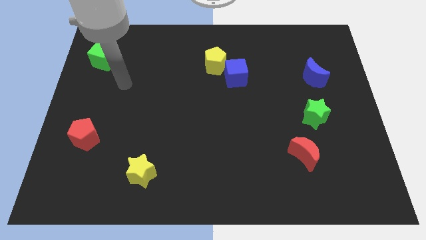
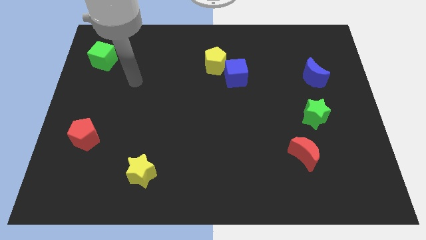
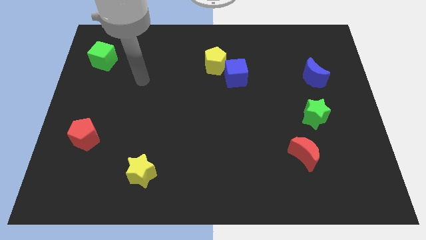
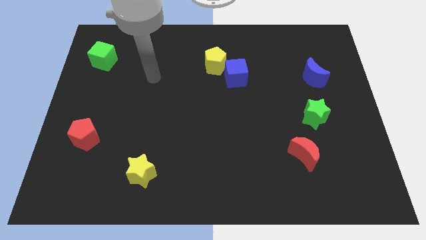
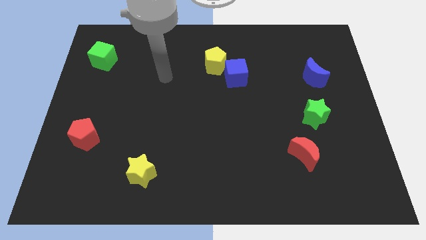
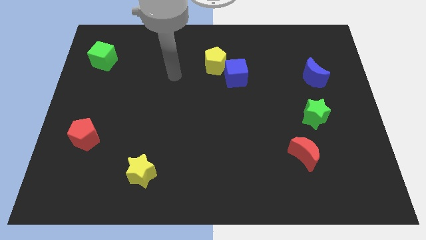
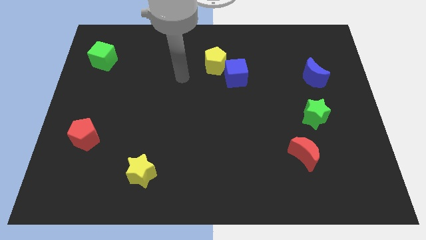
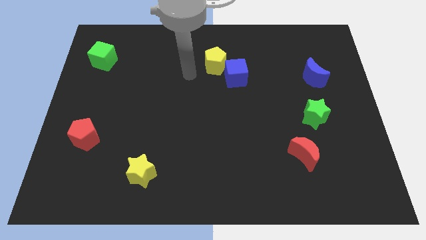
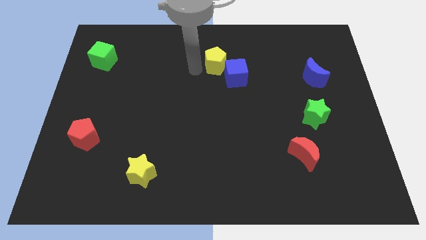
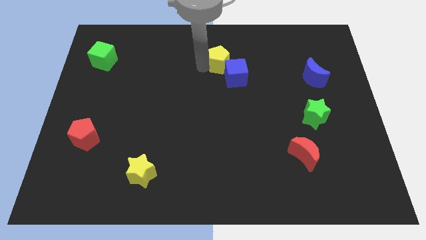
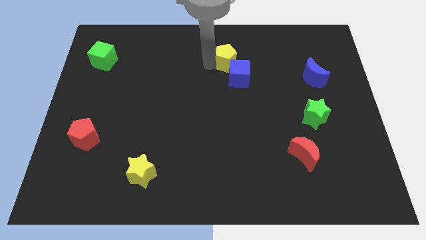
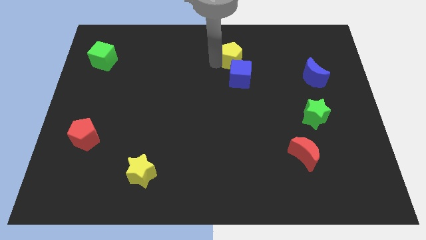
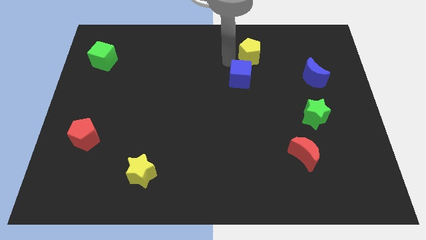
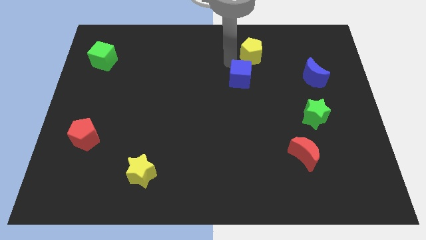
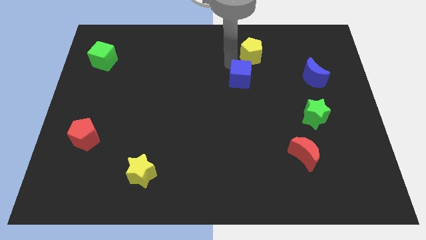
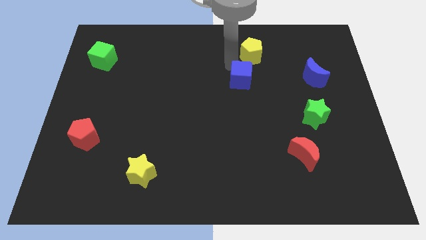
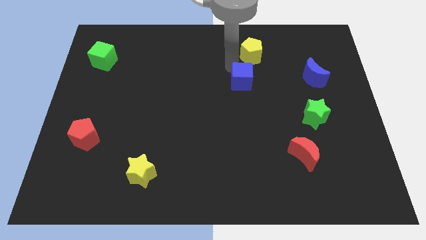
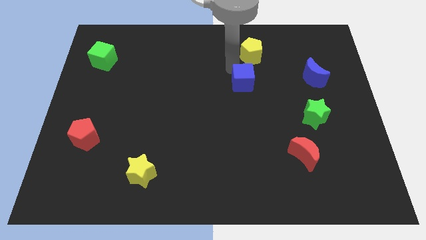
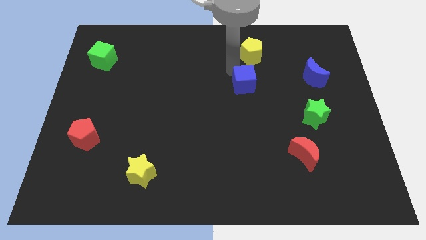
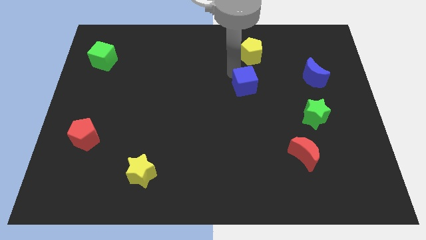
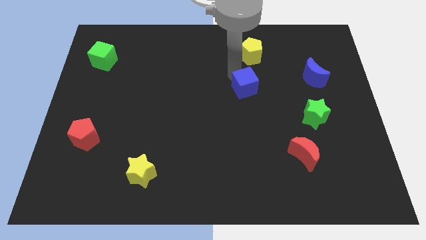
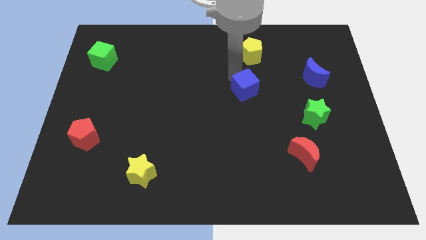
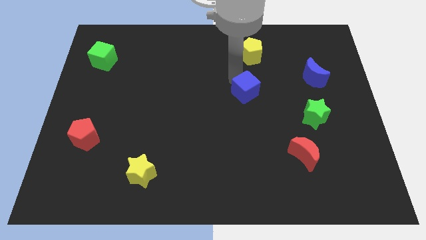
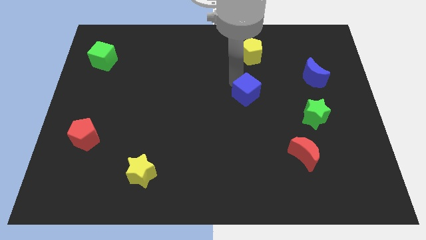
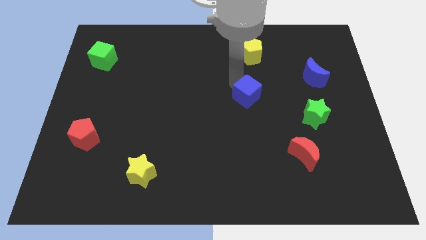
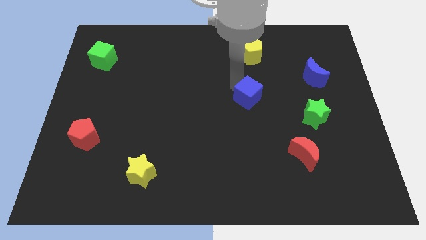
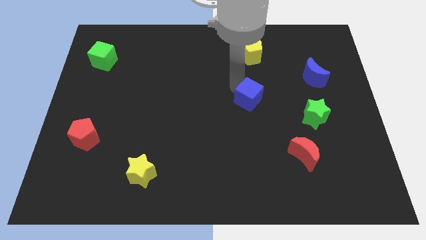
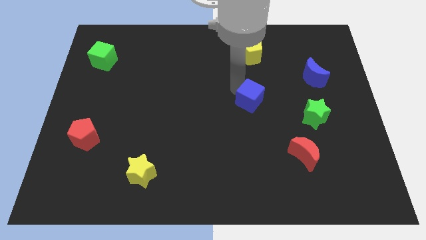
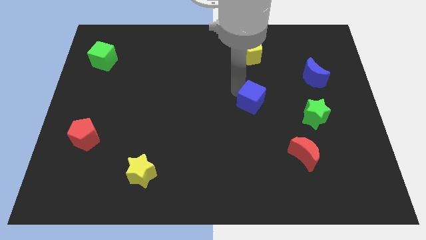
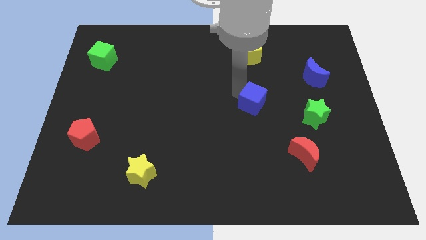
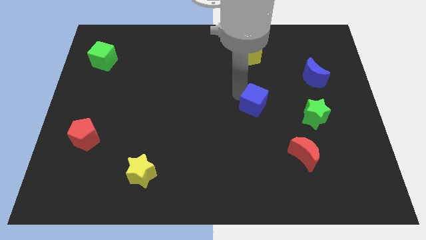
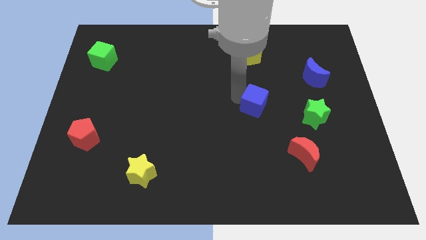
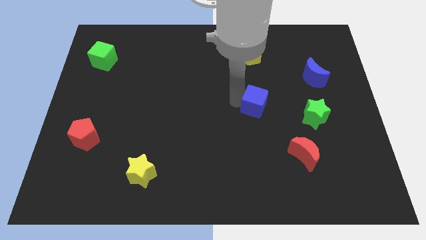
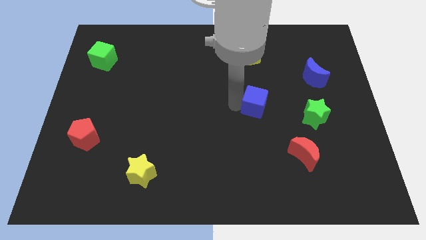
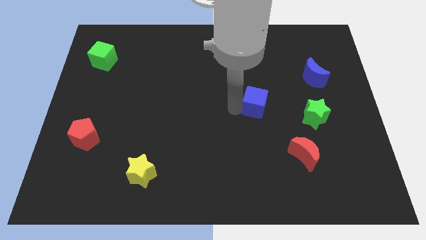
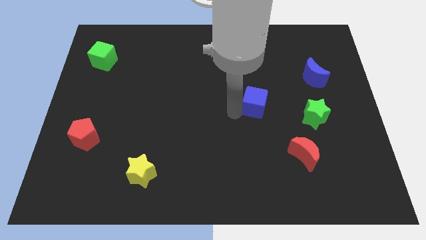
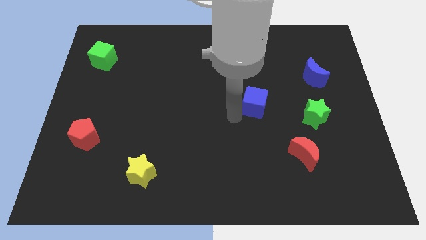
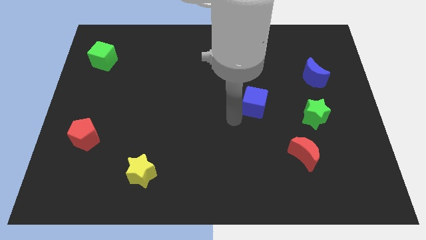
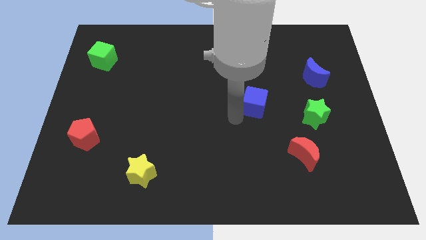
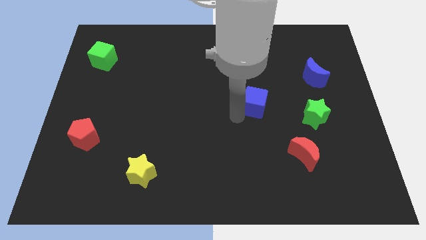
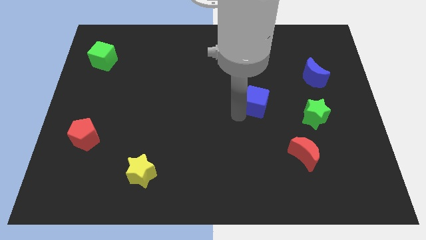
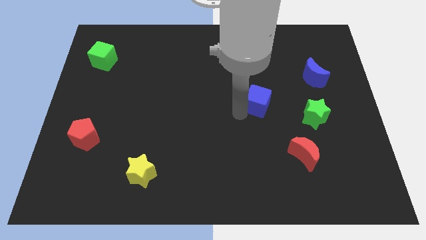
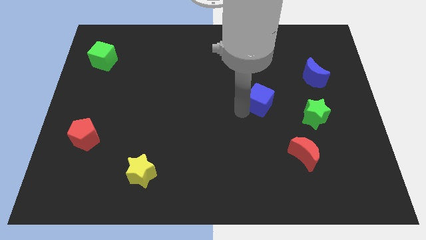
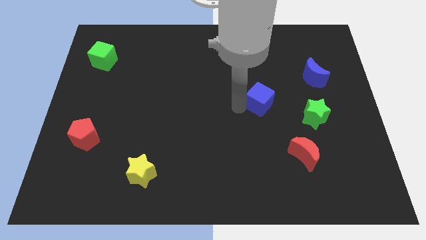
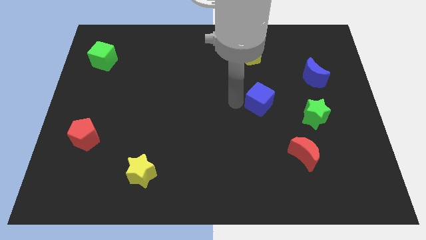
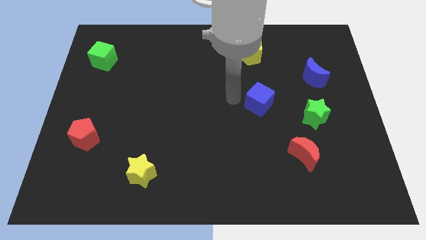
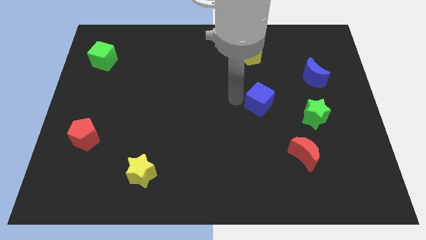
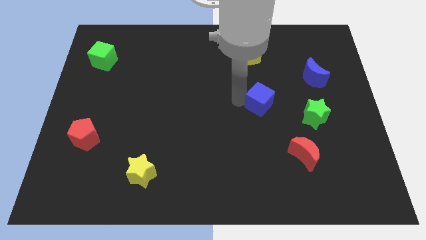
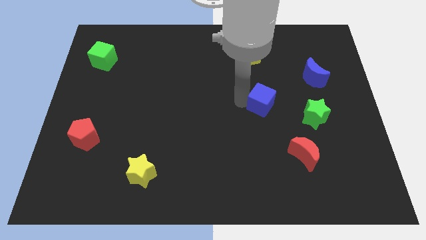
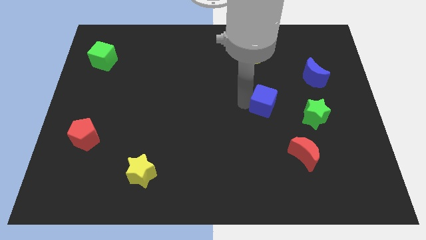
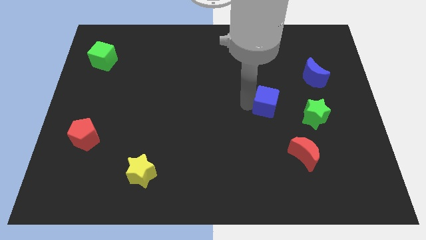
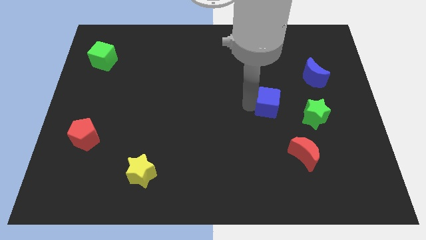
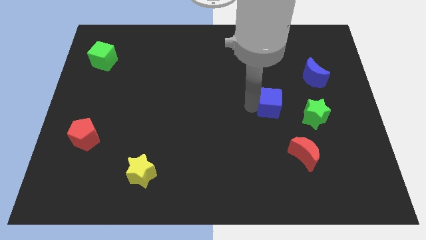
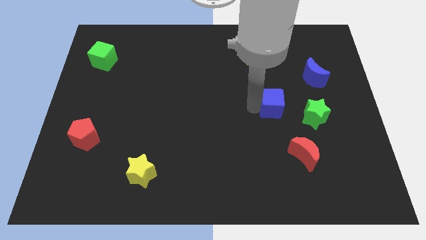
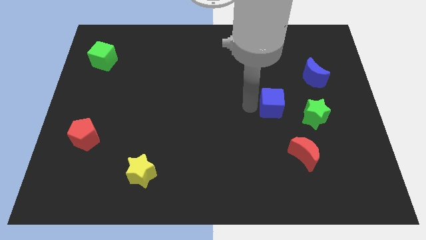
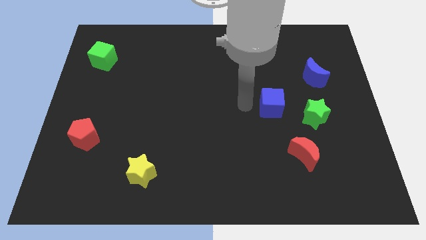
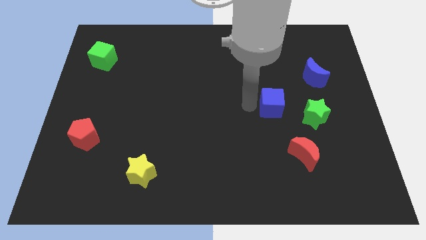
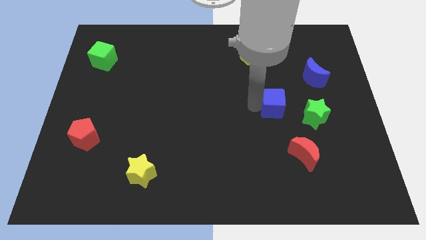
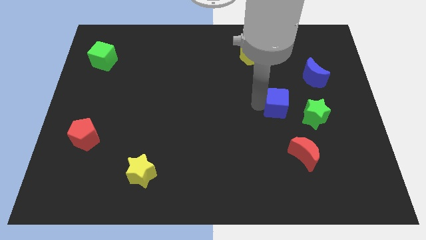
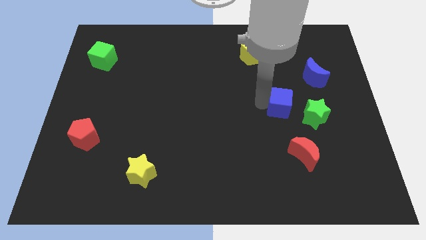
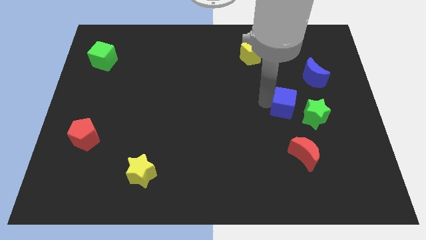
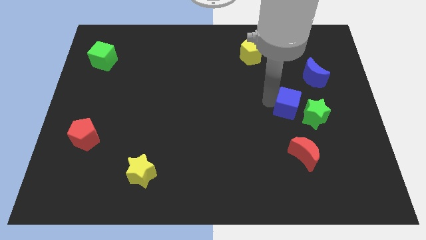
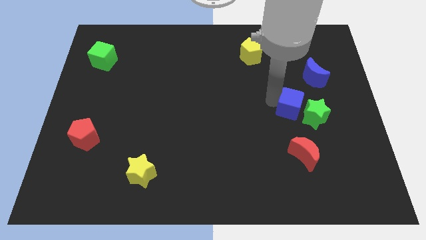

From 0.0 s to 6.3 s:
push the blue cube to the green star

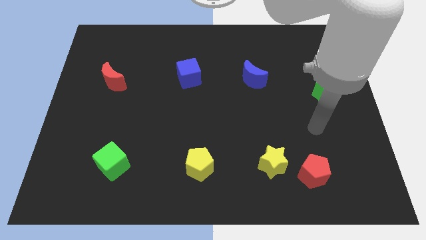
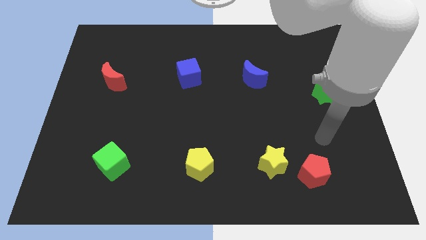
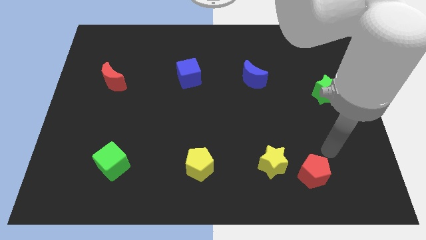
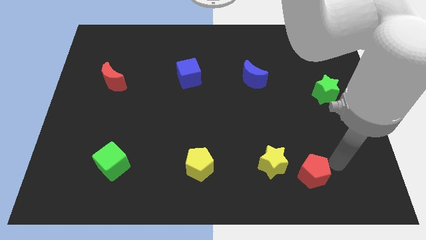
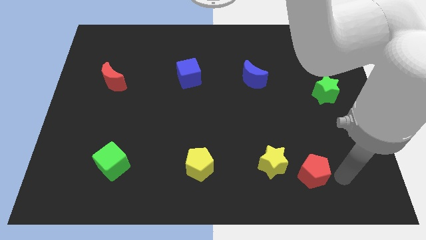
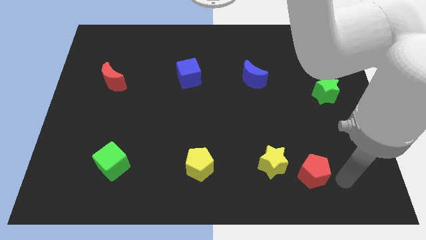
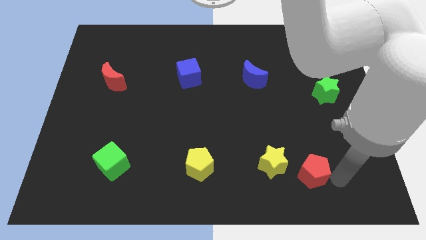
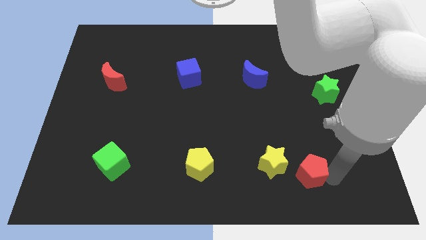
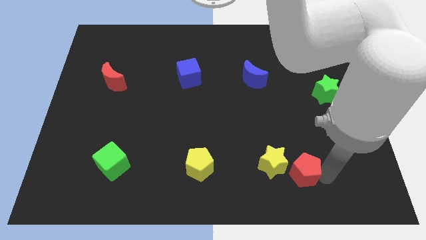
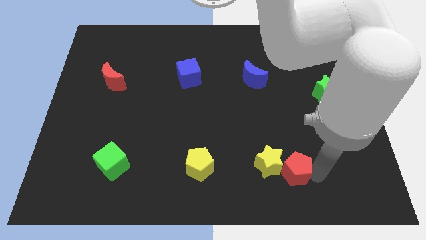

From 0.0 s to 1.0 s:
move the red pentagon close to the yellow star
